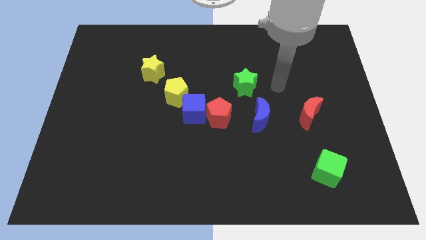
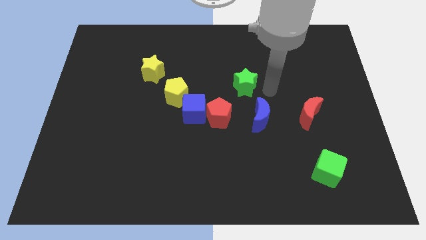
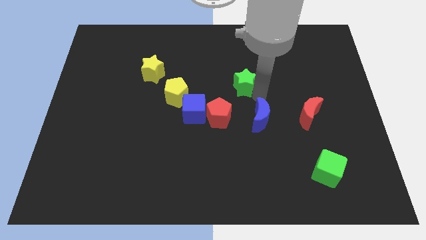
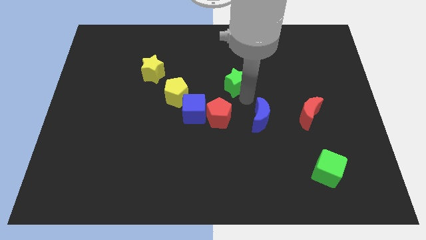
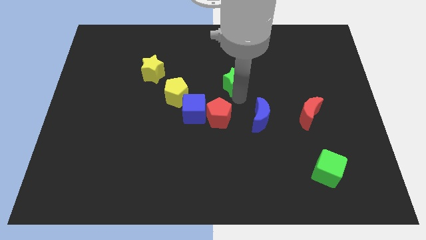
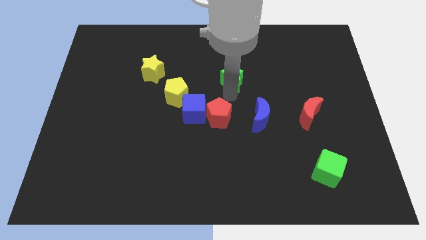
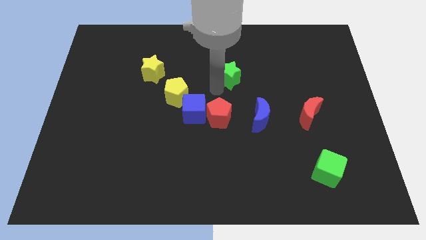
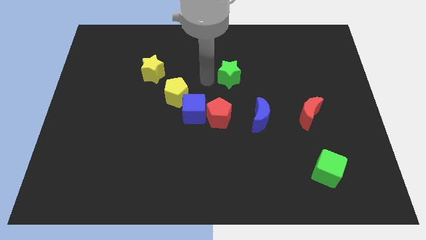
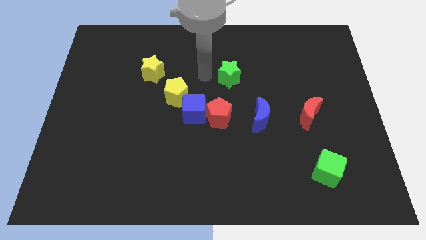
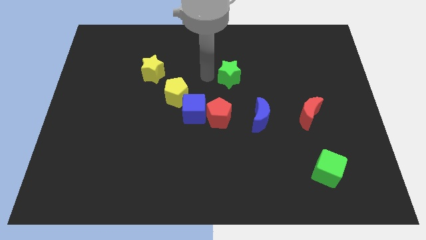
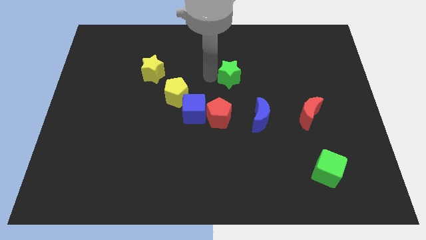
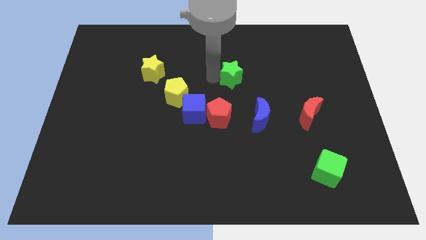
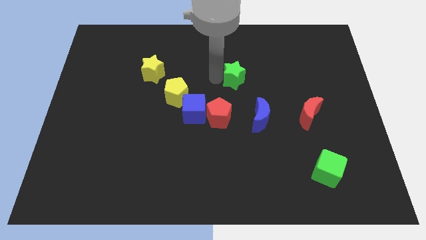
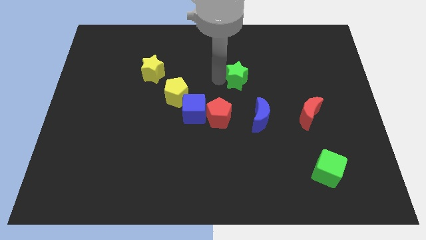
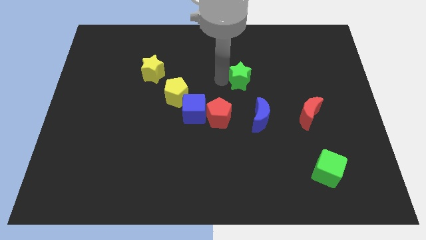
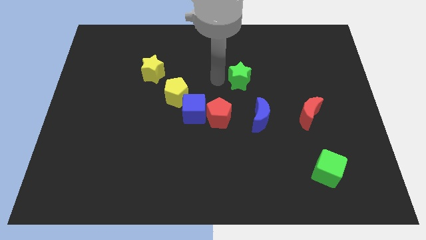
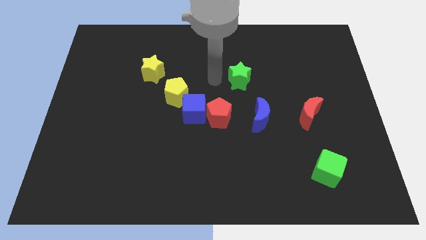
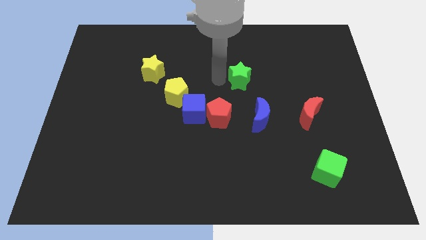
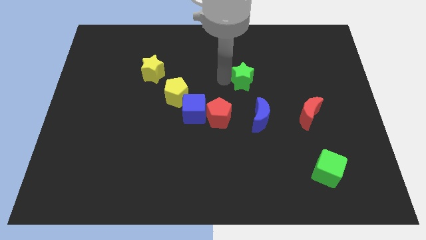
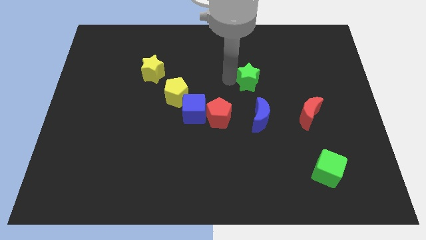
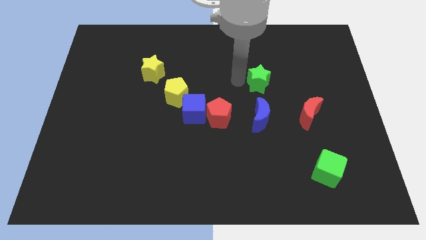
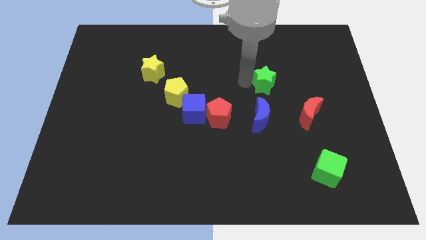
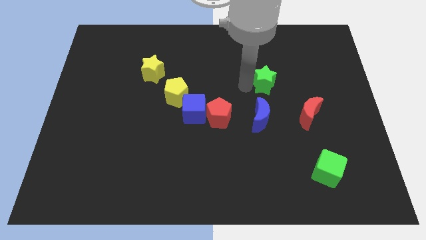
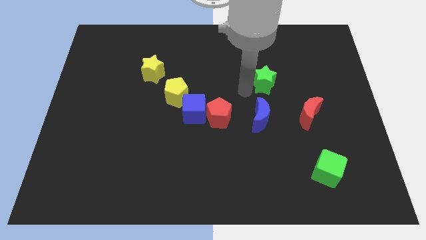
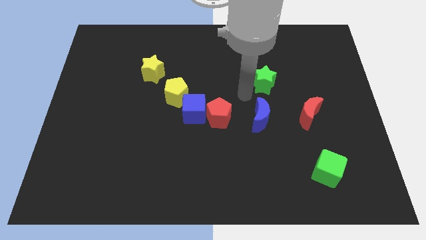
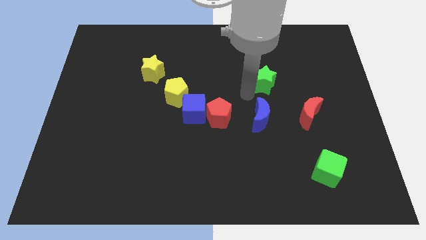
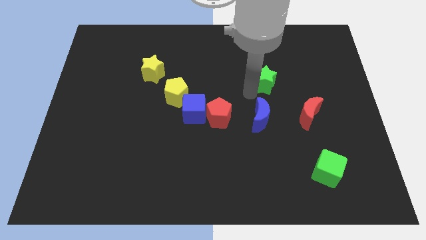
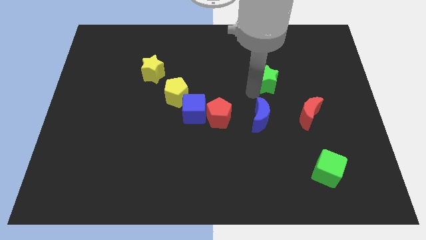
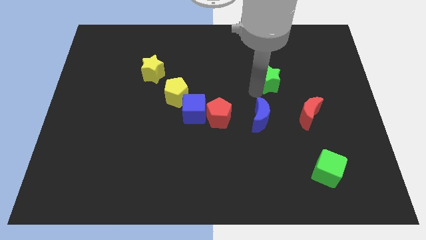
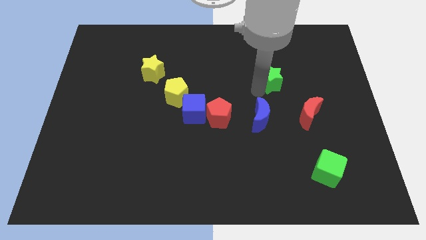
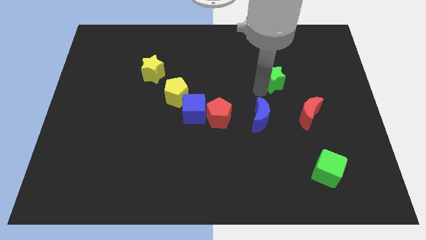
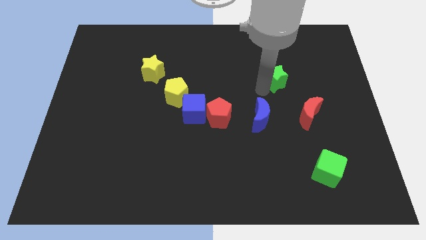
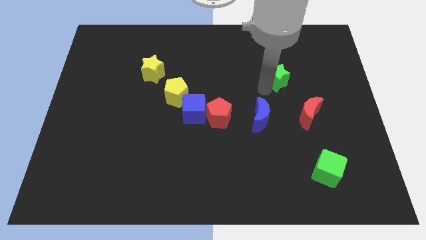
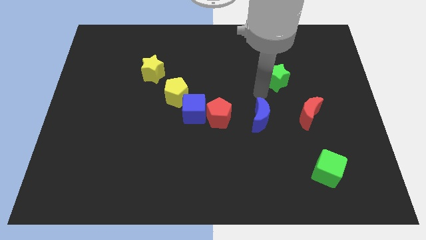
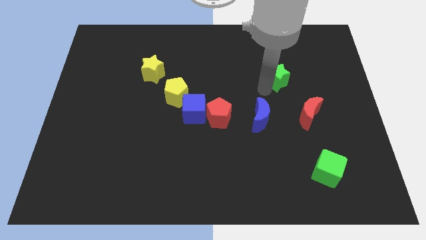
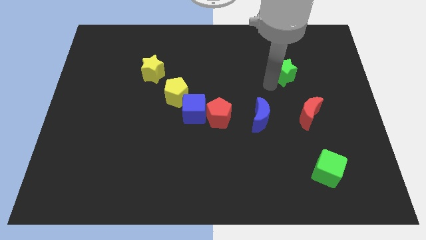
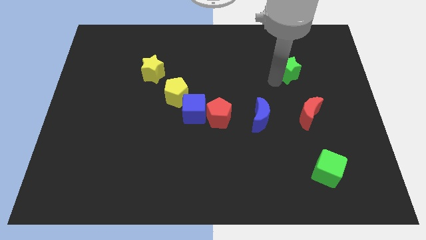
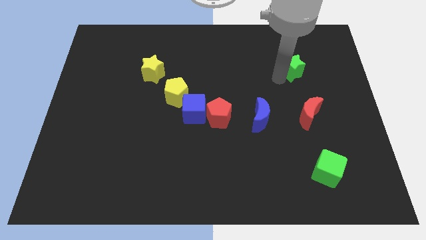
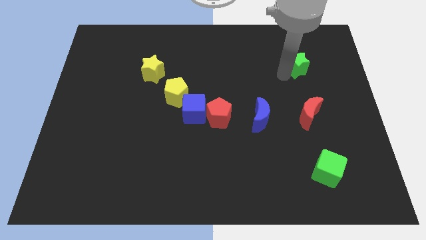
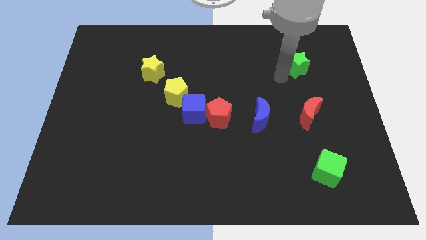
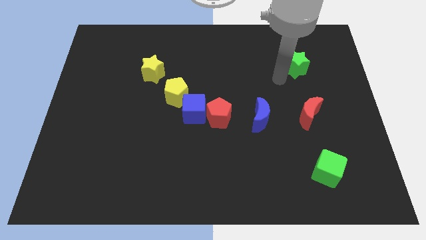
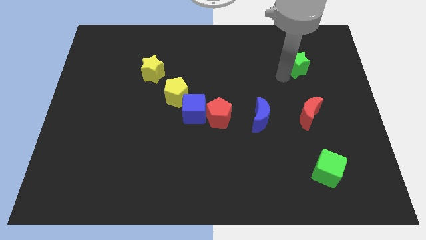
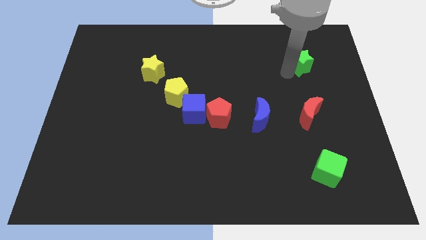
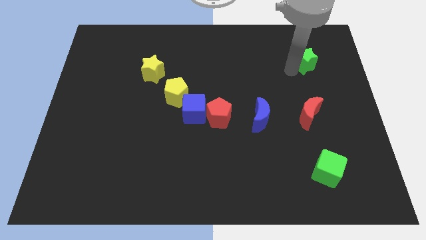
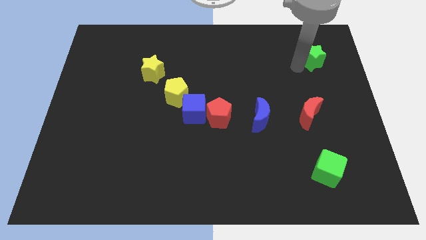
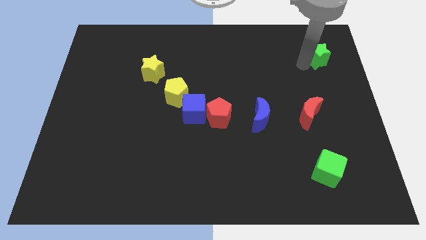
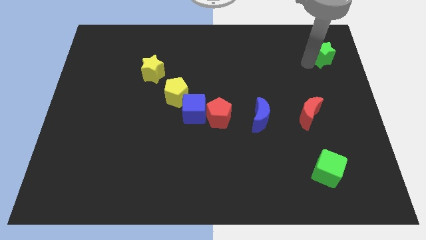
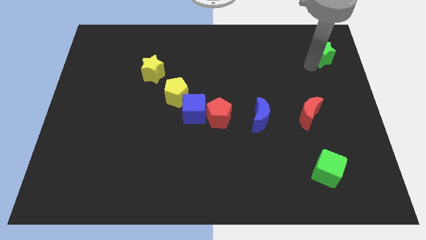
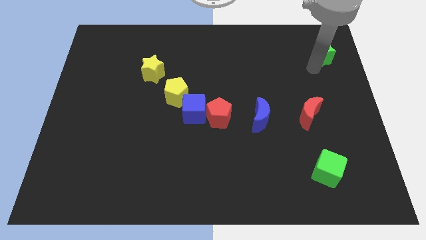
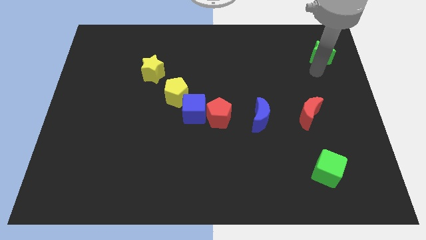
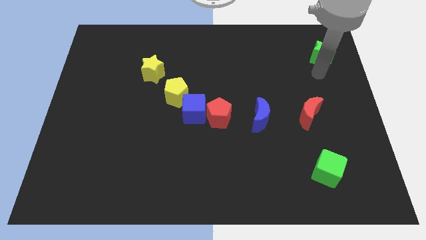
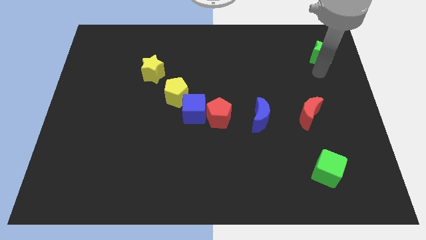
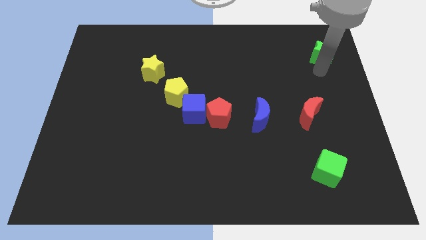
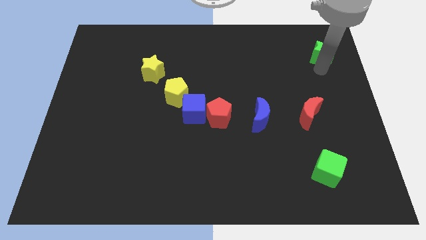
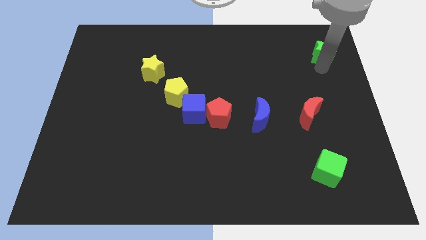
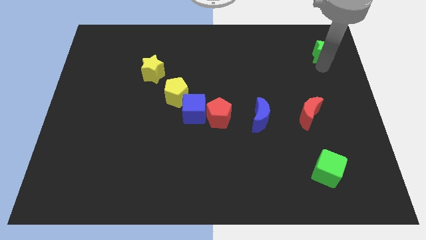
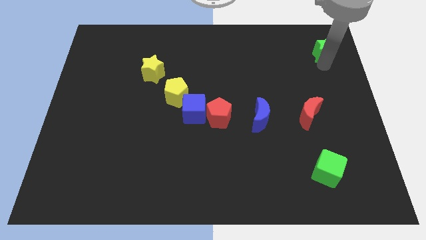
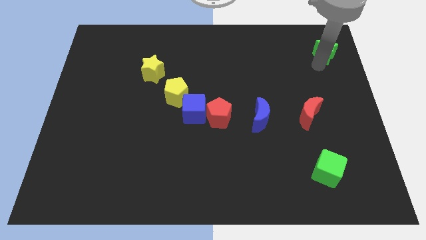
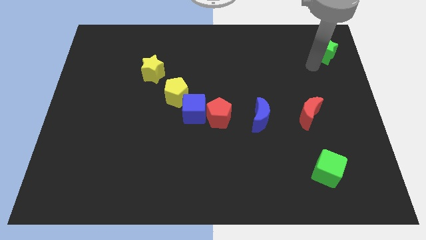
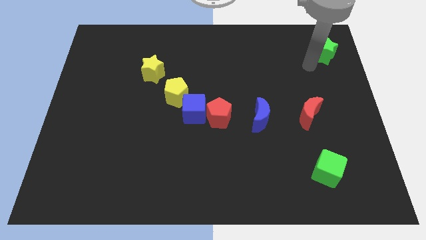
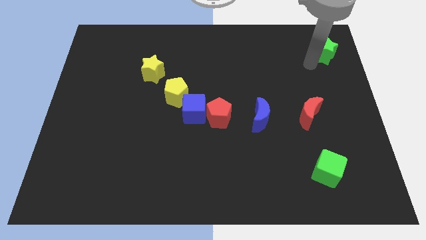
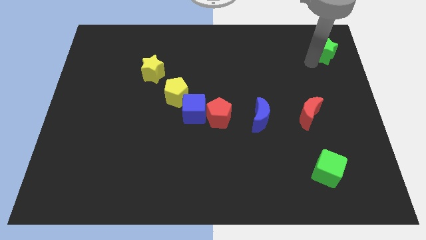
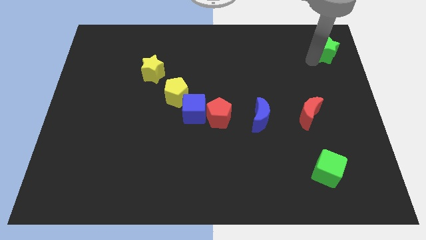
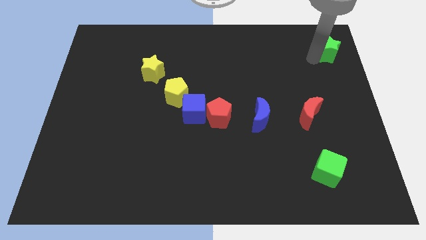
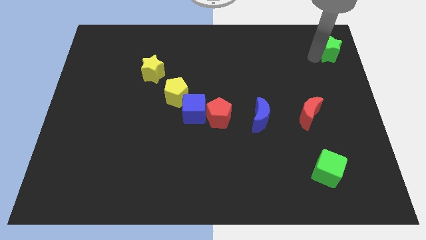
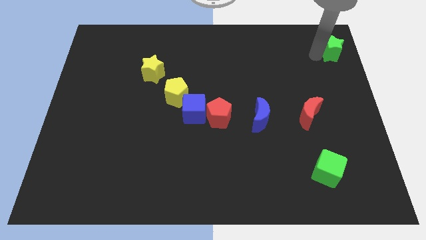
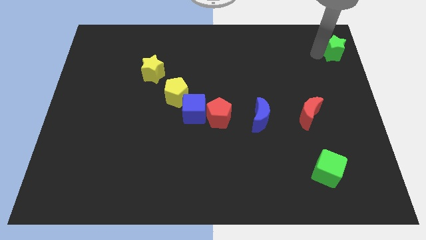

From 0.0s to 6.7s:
put the green star to the top right corner
